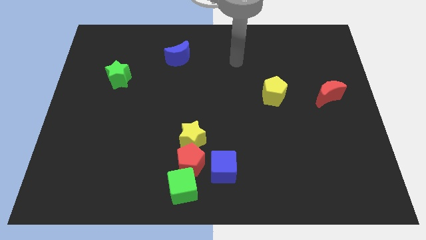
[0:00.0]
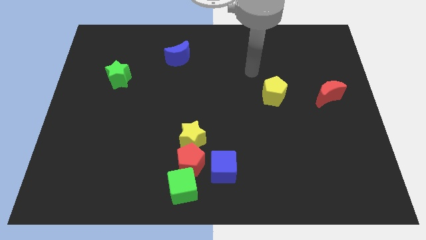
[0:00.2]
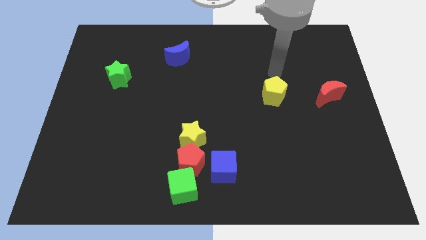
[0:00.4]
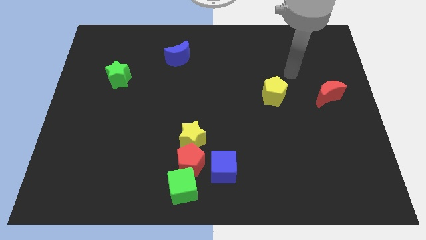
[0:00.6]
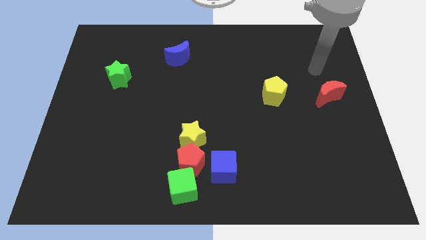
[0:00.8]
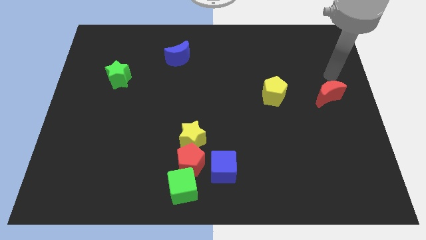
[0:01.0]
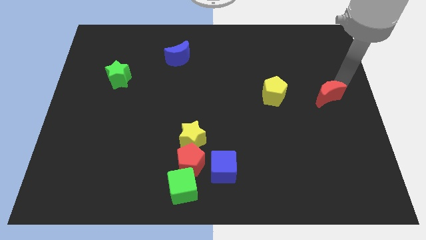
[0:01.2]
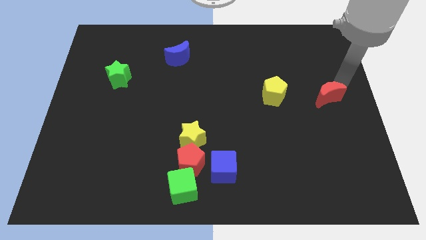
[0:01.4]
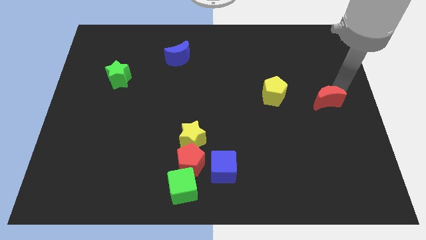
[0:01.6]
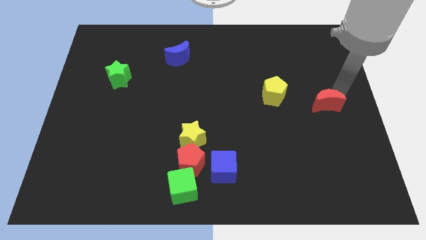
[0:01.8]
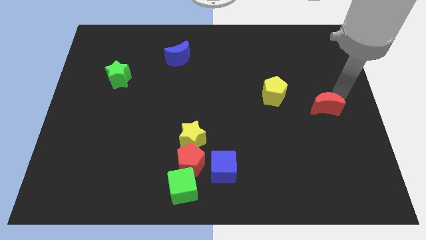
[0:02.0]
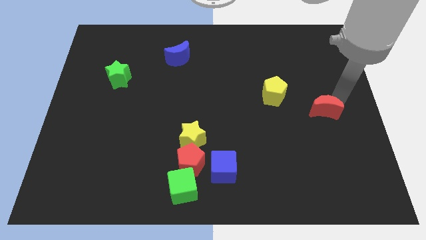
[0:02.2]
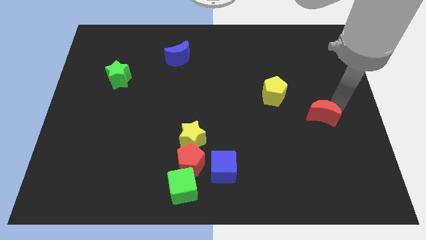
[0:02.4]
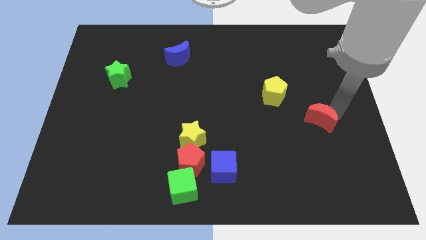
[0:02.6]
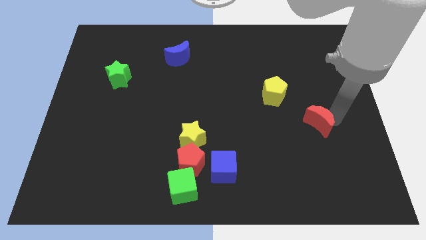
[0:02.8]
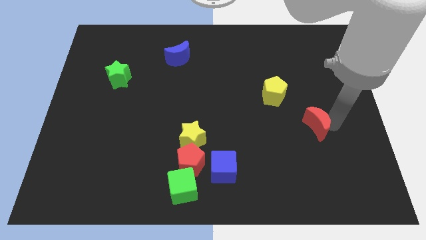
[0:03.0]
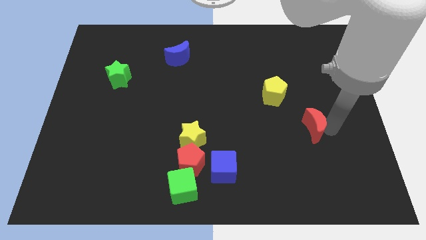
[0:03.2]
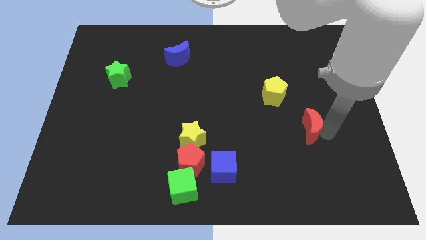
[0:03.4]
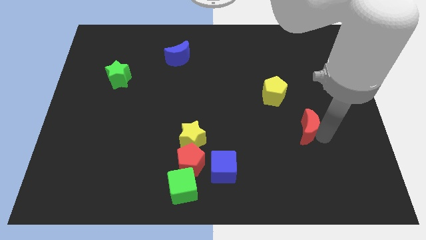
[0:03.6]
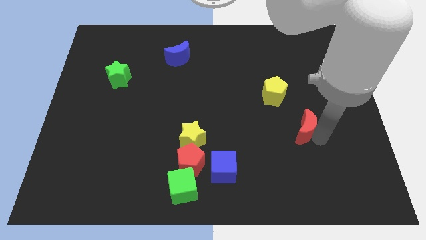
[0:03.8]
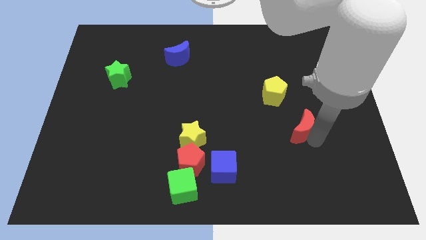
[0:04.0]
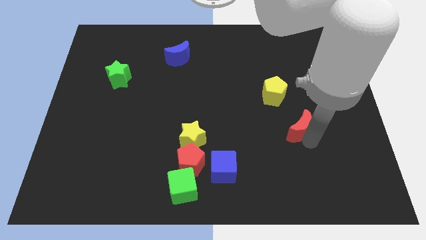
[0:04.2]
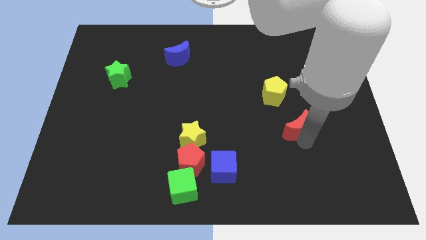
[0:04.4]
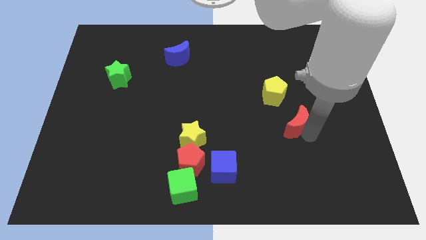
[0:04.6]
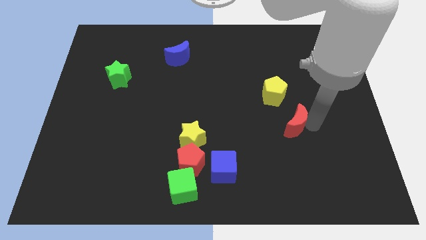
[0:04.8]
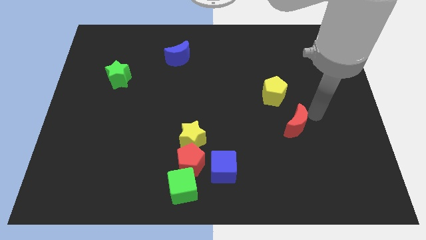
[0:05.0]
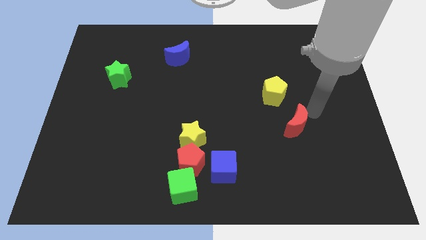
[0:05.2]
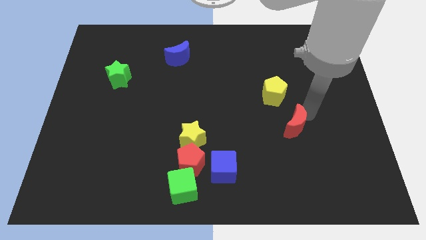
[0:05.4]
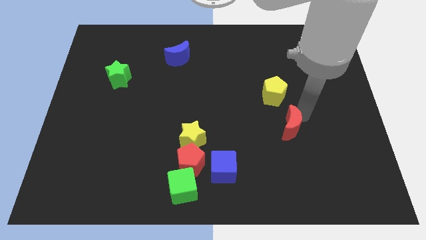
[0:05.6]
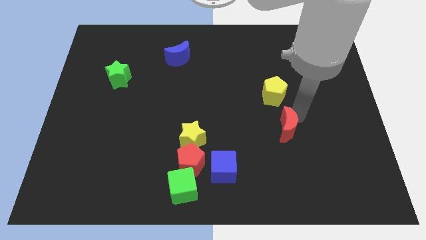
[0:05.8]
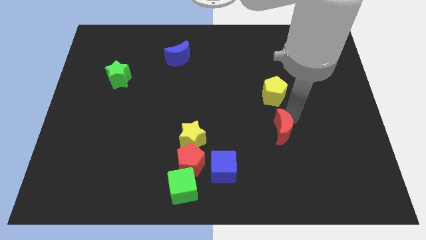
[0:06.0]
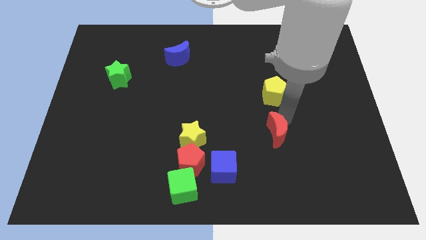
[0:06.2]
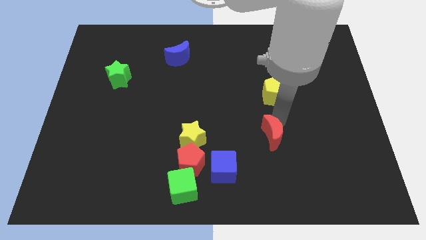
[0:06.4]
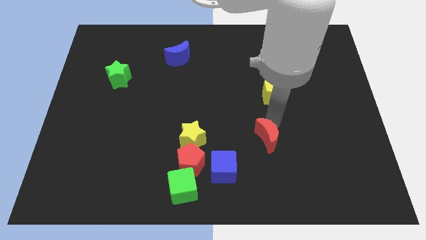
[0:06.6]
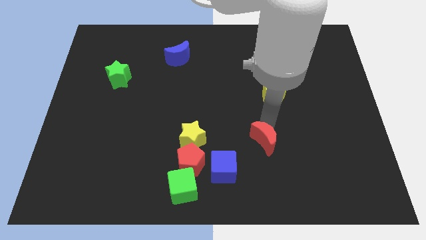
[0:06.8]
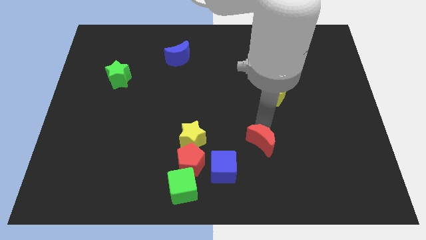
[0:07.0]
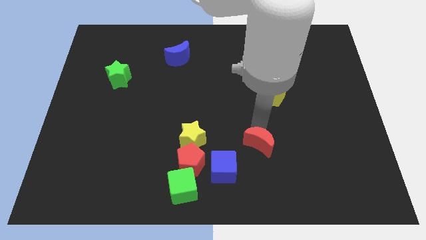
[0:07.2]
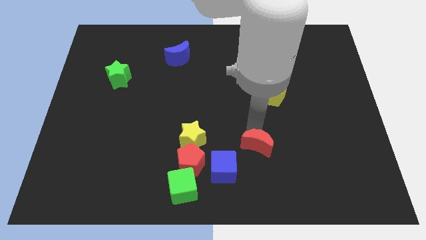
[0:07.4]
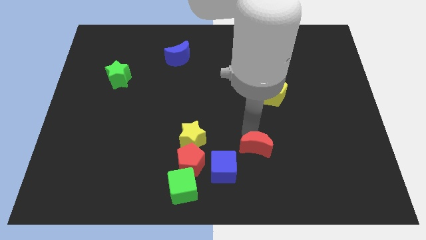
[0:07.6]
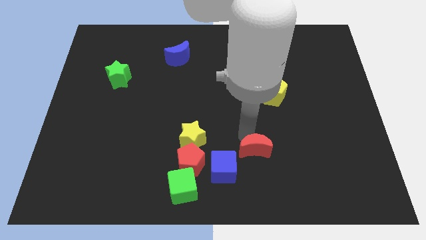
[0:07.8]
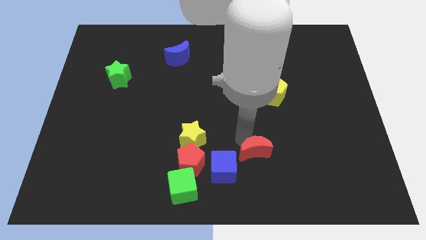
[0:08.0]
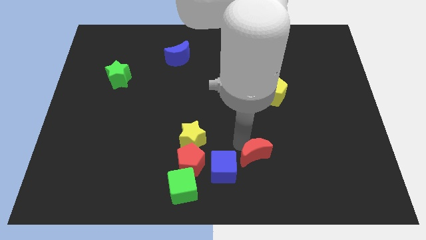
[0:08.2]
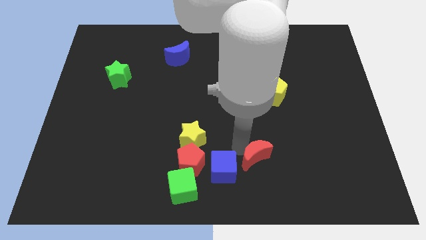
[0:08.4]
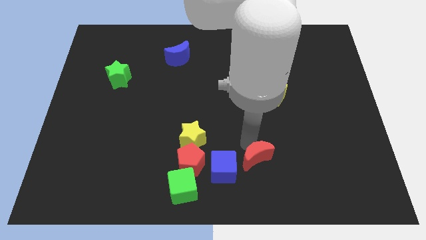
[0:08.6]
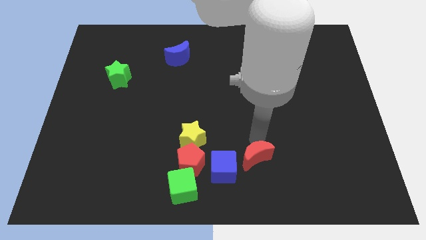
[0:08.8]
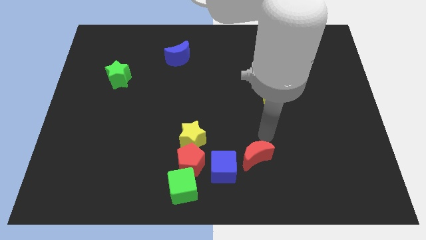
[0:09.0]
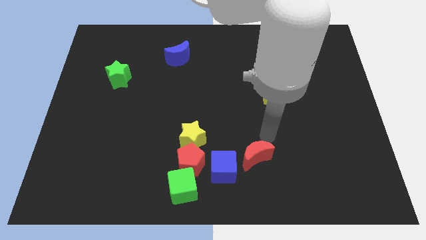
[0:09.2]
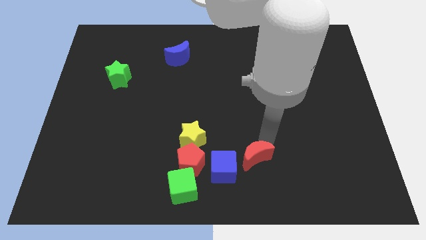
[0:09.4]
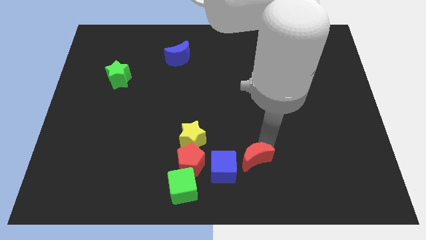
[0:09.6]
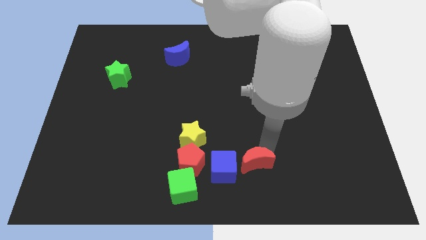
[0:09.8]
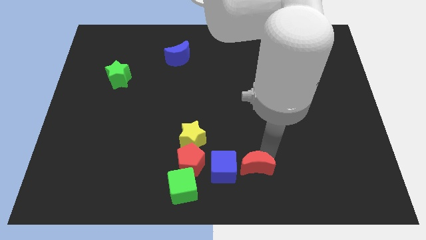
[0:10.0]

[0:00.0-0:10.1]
slide the red moon to the bottom side

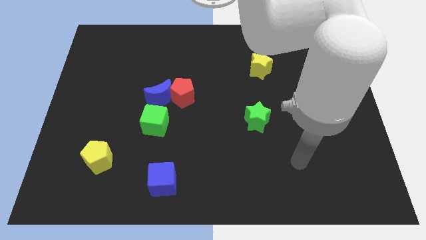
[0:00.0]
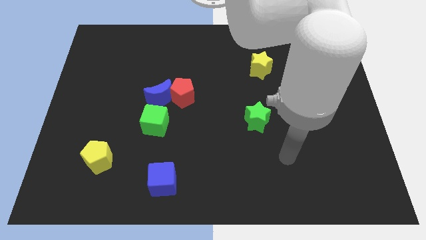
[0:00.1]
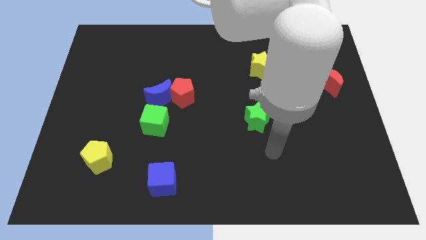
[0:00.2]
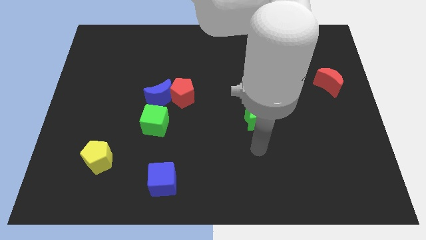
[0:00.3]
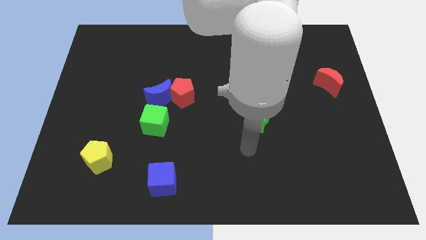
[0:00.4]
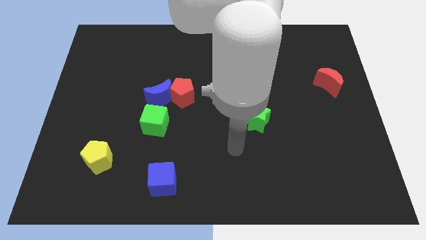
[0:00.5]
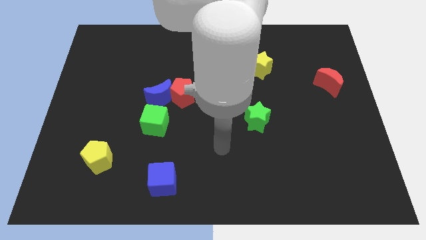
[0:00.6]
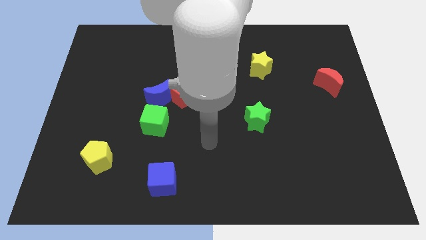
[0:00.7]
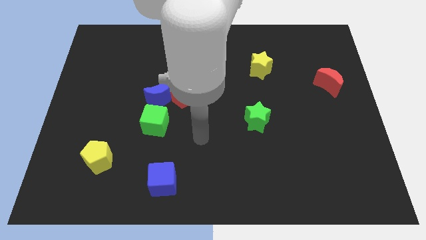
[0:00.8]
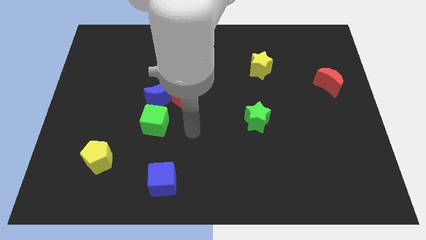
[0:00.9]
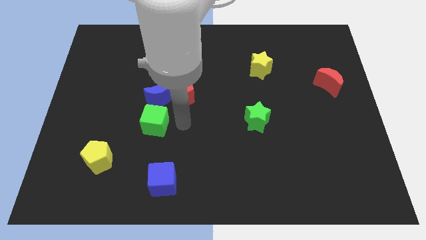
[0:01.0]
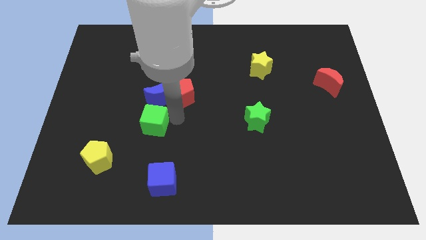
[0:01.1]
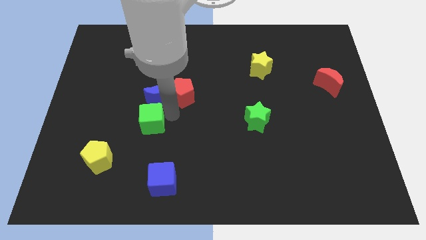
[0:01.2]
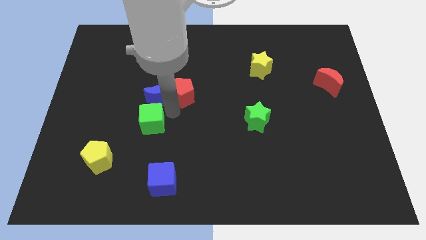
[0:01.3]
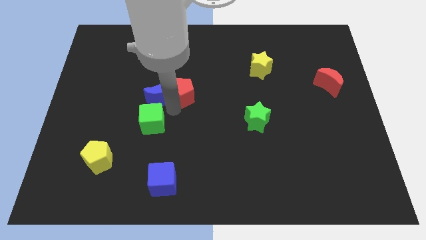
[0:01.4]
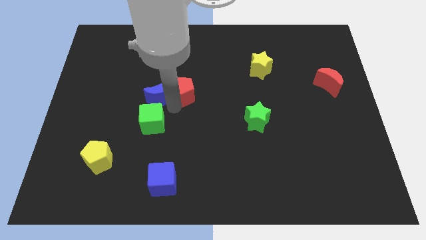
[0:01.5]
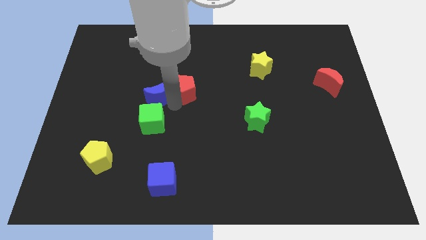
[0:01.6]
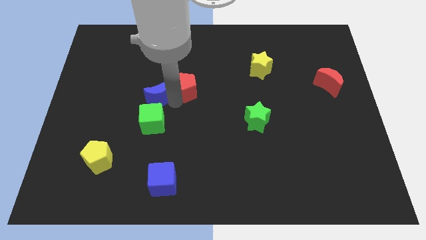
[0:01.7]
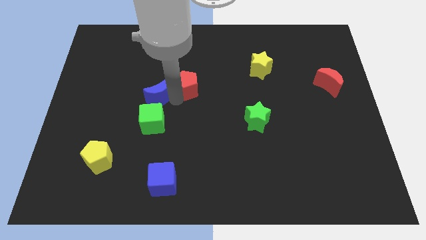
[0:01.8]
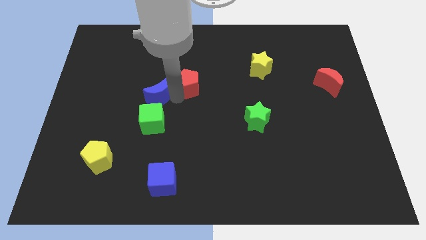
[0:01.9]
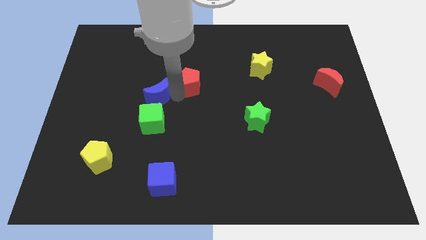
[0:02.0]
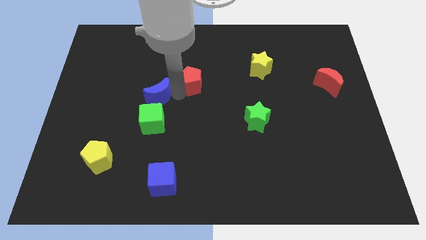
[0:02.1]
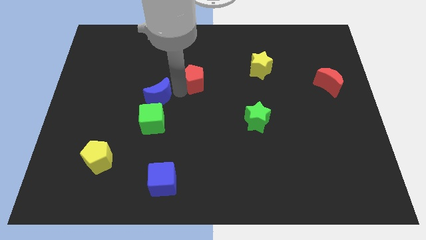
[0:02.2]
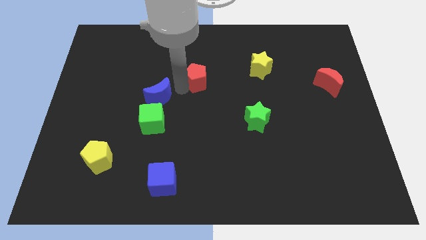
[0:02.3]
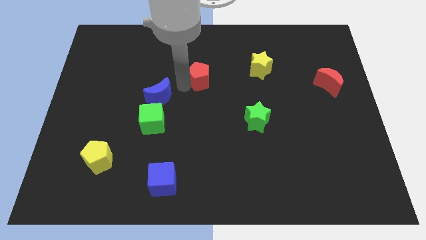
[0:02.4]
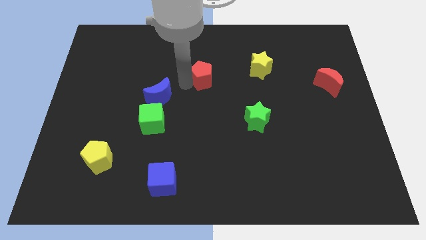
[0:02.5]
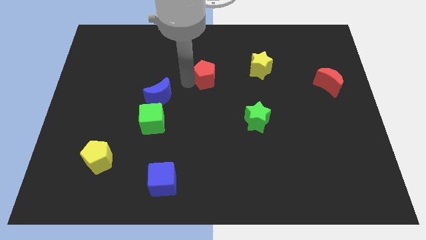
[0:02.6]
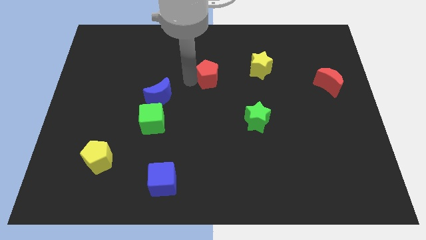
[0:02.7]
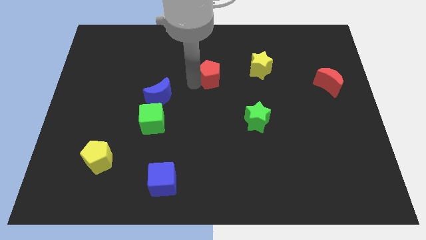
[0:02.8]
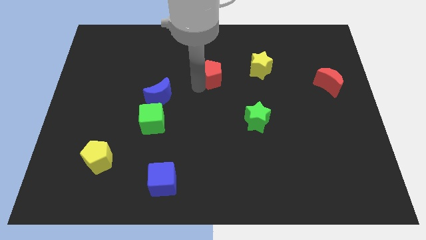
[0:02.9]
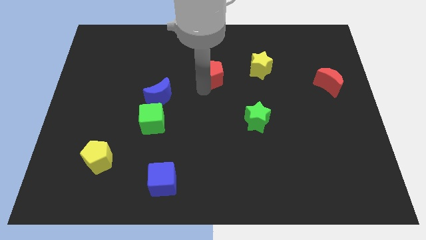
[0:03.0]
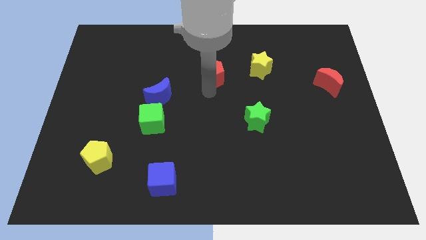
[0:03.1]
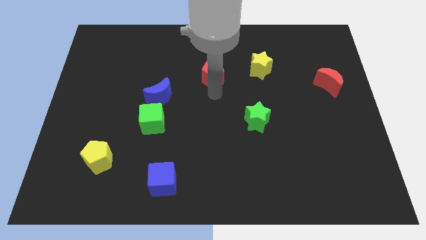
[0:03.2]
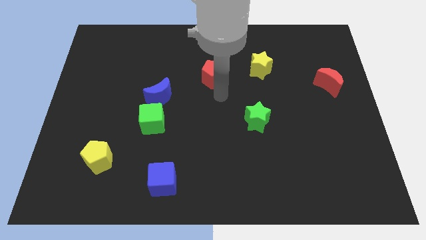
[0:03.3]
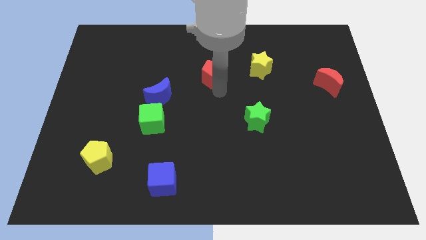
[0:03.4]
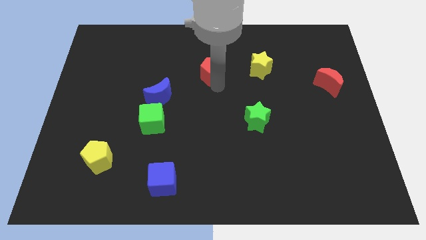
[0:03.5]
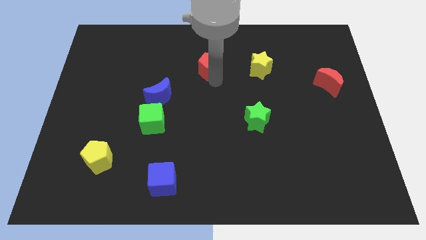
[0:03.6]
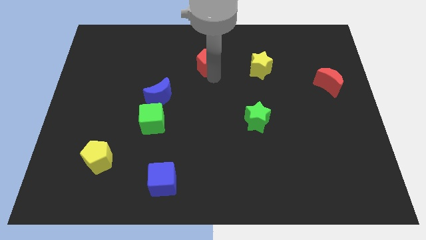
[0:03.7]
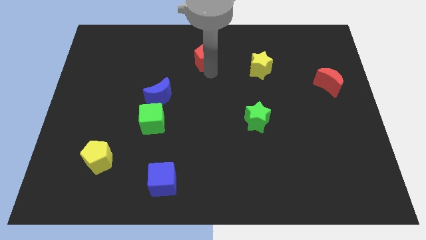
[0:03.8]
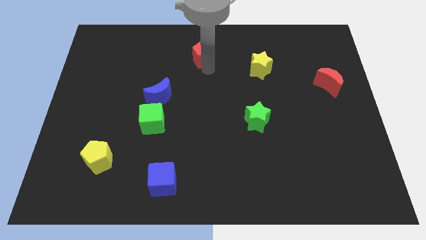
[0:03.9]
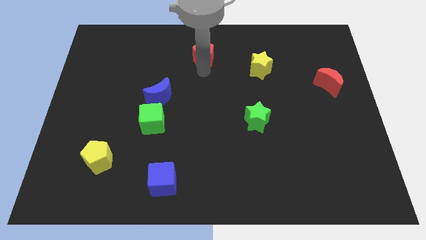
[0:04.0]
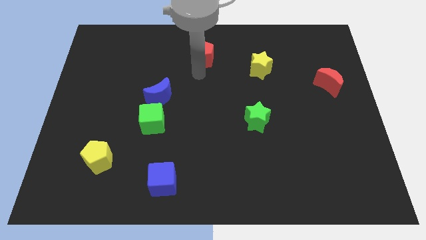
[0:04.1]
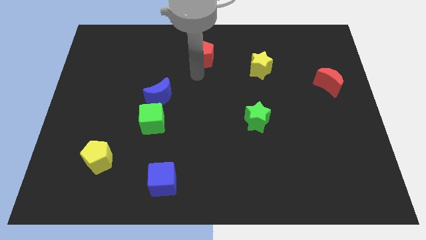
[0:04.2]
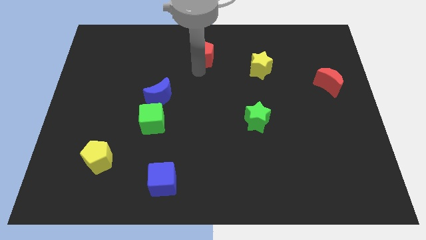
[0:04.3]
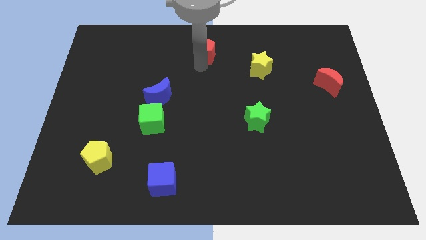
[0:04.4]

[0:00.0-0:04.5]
slide the red pentagon to the towards your base
